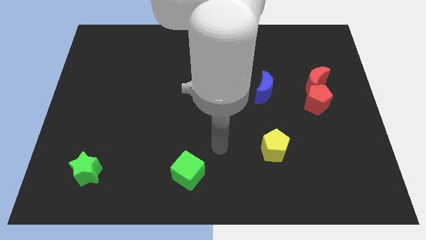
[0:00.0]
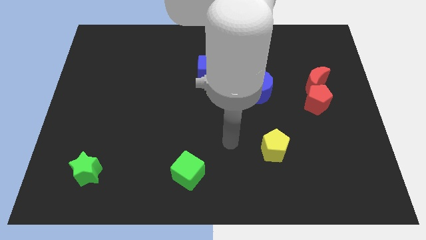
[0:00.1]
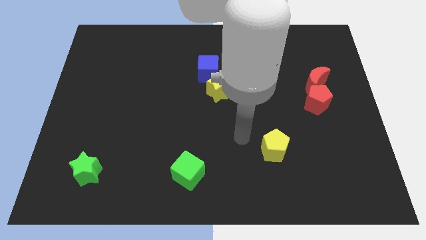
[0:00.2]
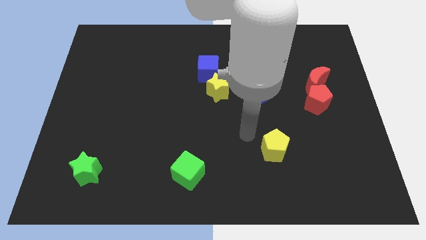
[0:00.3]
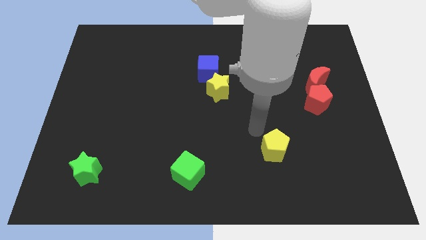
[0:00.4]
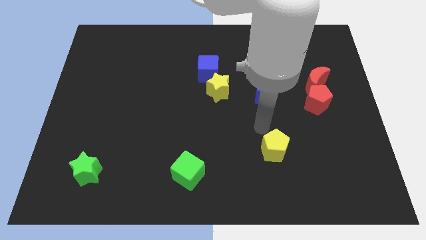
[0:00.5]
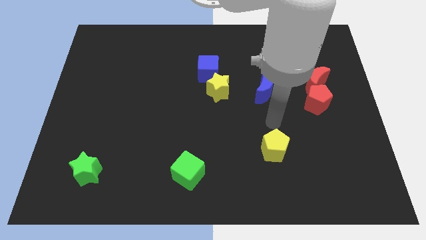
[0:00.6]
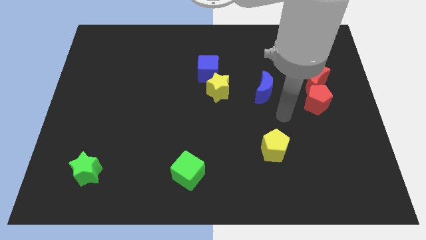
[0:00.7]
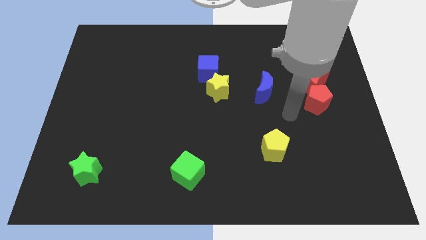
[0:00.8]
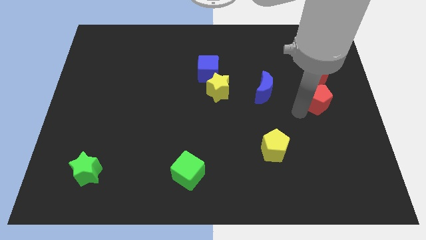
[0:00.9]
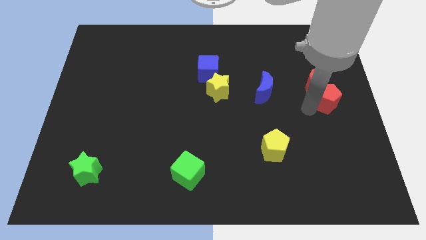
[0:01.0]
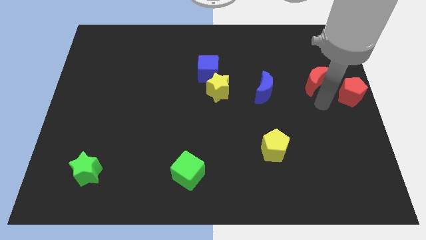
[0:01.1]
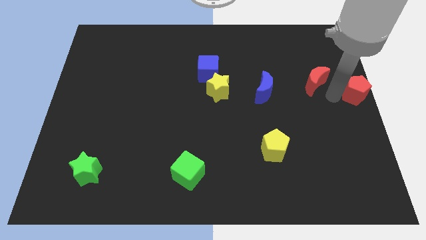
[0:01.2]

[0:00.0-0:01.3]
pull the red moon apart from the red pentagon

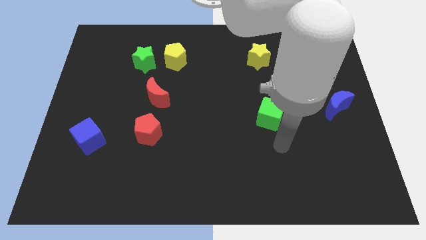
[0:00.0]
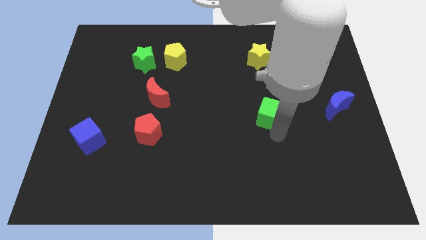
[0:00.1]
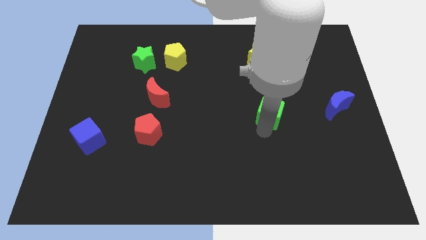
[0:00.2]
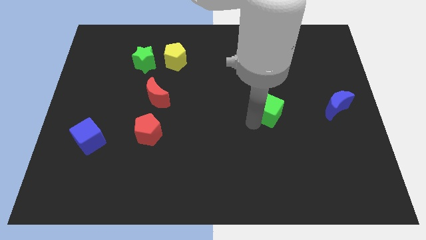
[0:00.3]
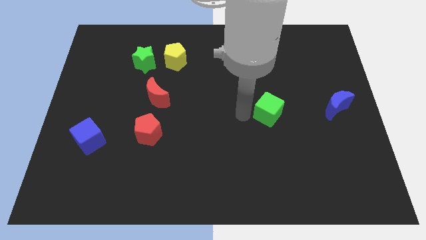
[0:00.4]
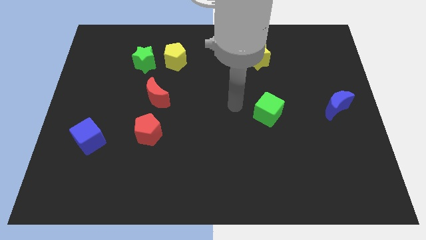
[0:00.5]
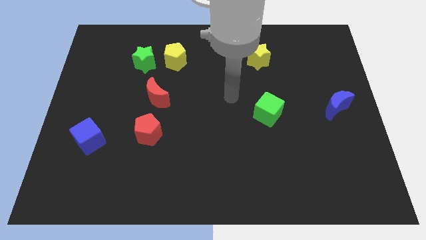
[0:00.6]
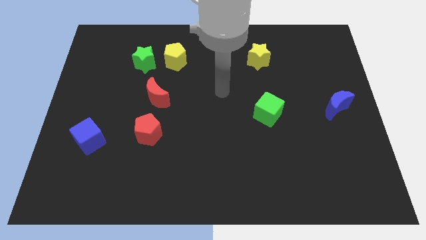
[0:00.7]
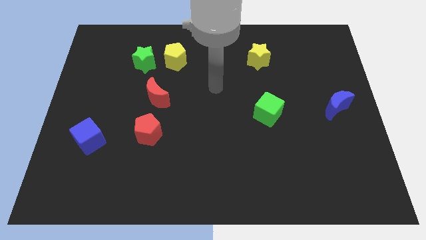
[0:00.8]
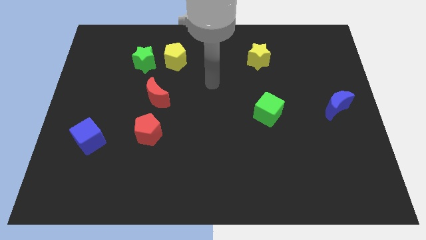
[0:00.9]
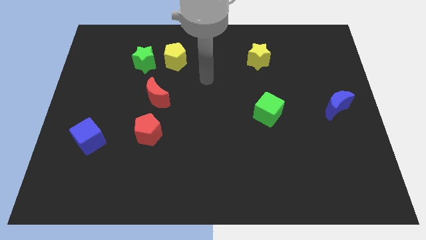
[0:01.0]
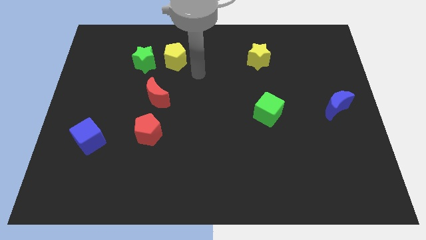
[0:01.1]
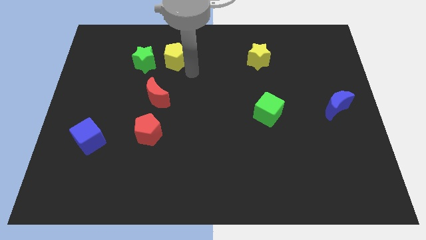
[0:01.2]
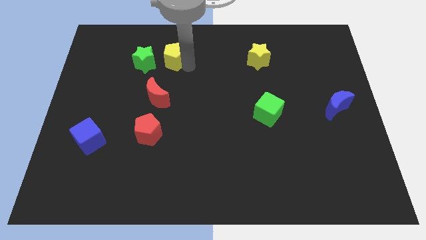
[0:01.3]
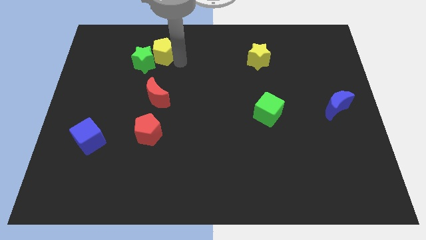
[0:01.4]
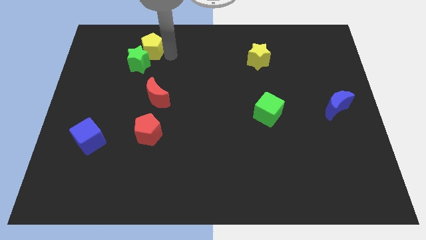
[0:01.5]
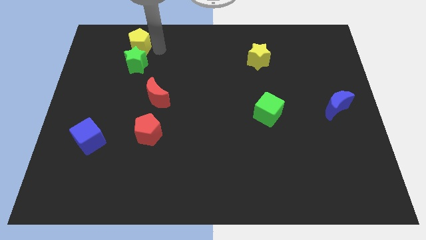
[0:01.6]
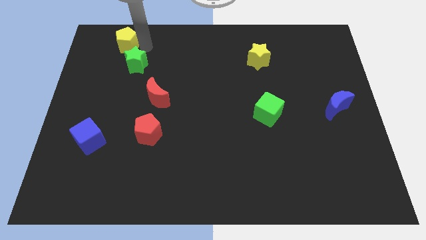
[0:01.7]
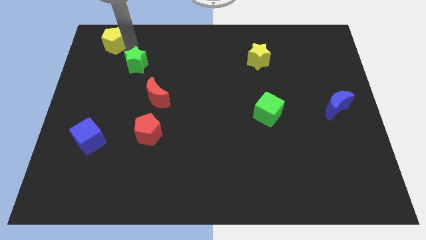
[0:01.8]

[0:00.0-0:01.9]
separate the green star from the yellow pentagon

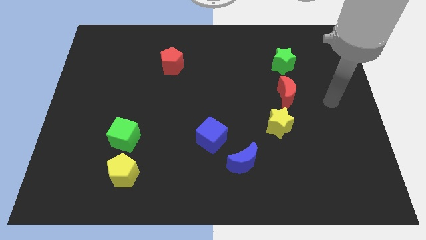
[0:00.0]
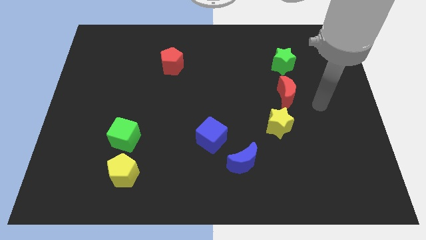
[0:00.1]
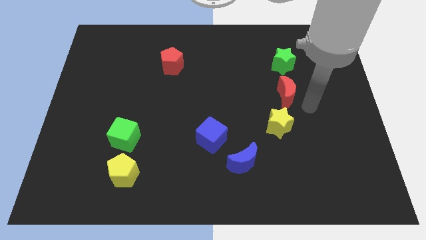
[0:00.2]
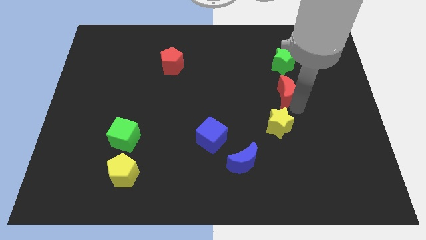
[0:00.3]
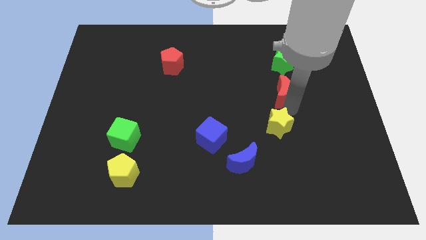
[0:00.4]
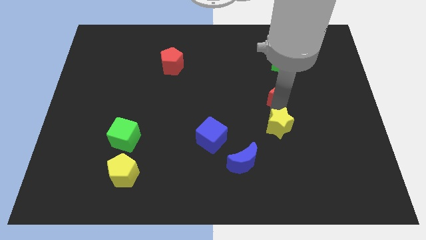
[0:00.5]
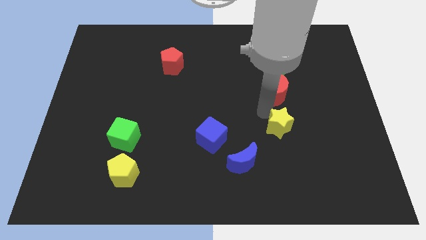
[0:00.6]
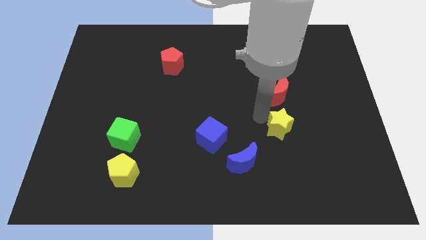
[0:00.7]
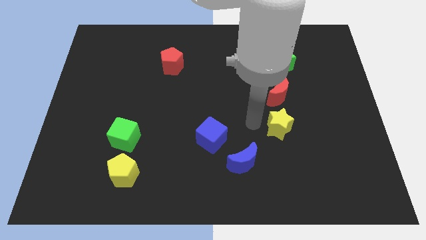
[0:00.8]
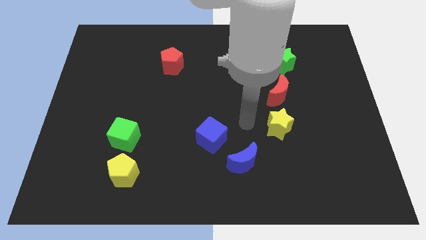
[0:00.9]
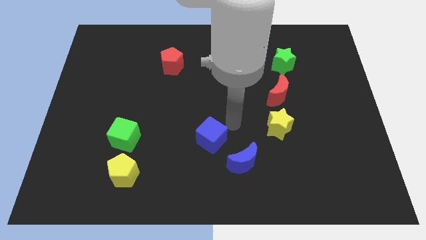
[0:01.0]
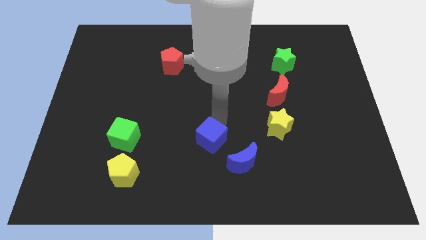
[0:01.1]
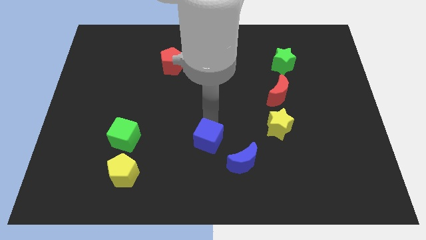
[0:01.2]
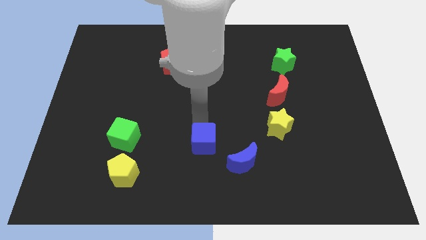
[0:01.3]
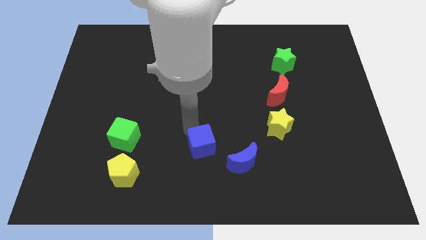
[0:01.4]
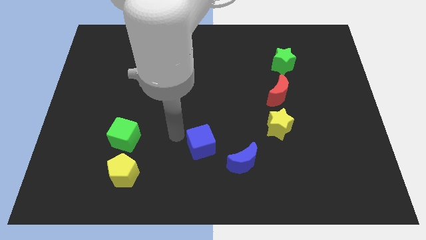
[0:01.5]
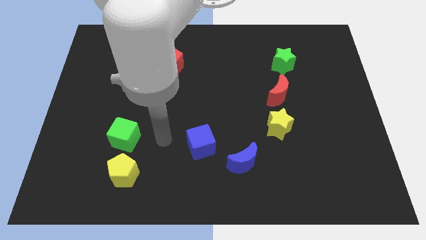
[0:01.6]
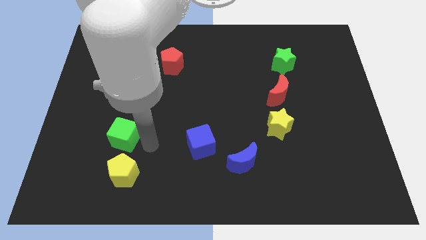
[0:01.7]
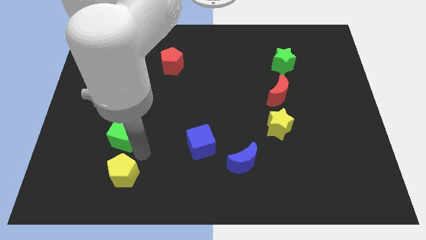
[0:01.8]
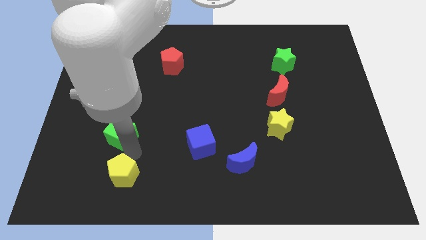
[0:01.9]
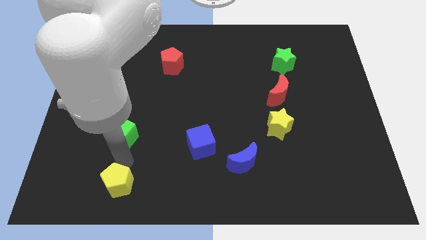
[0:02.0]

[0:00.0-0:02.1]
pull the green cube apart from the yellow pentagon

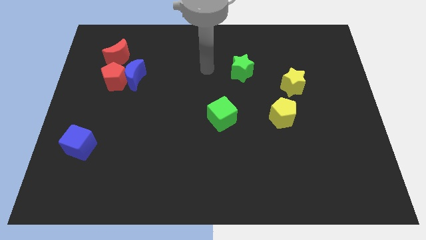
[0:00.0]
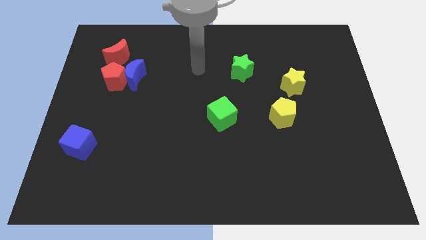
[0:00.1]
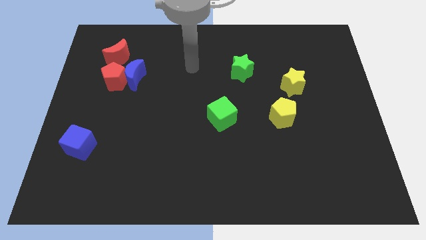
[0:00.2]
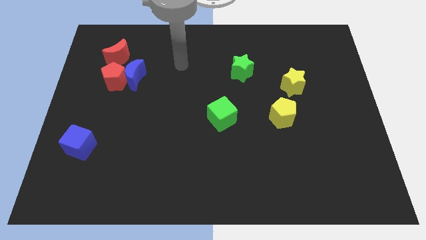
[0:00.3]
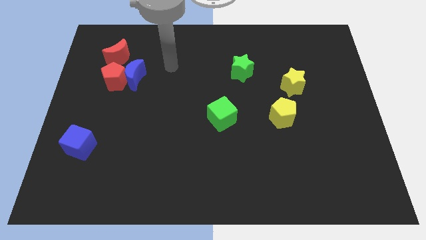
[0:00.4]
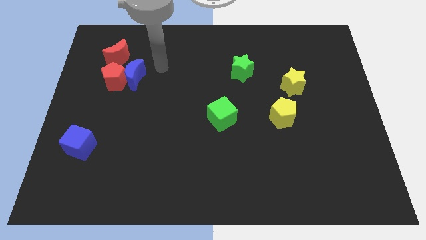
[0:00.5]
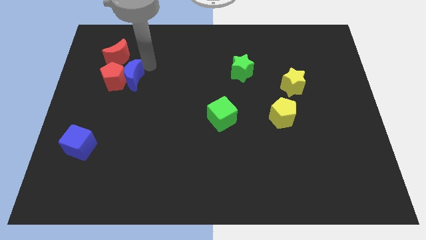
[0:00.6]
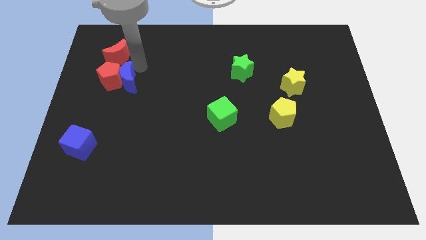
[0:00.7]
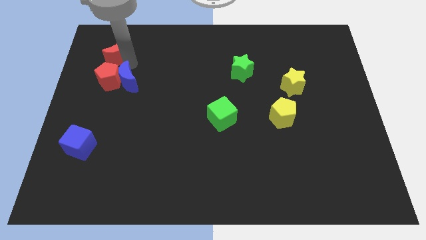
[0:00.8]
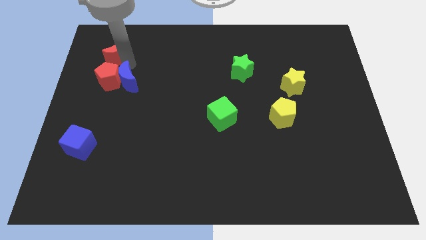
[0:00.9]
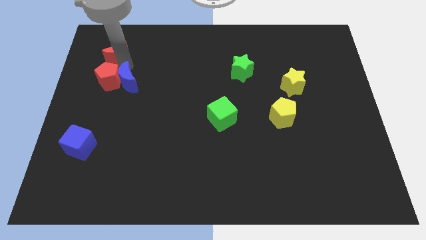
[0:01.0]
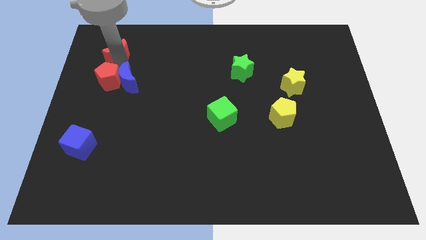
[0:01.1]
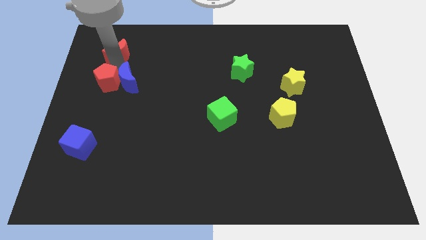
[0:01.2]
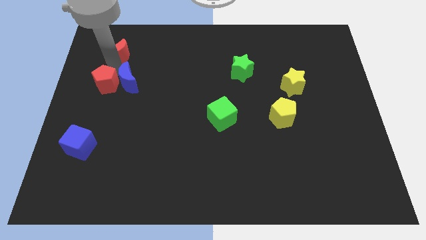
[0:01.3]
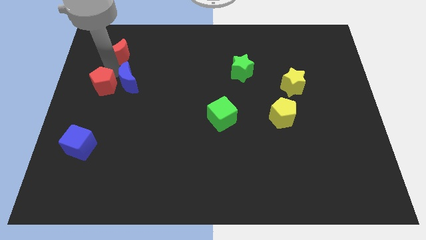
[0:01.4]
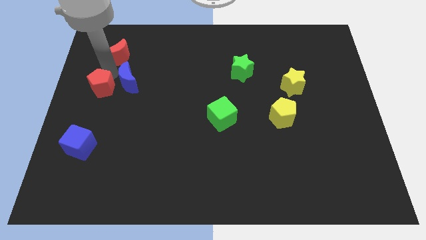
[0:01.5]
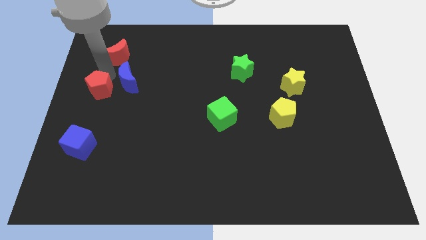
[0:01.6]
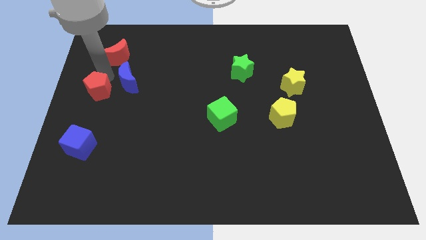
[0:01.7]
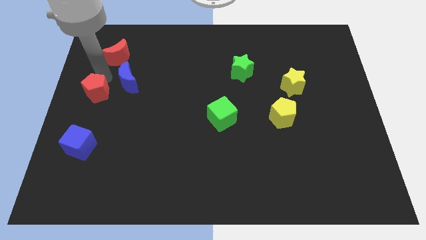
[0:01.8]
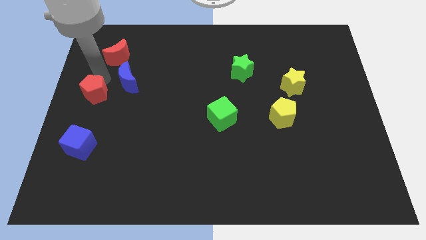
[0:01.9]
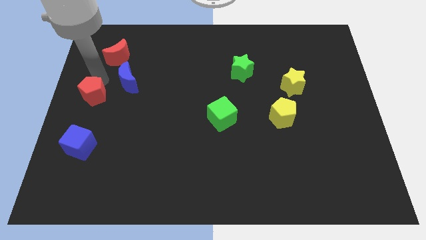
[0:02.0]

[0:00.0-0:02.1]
separate the red pentagon from the blue moon and red moon

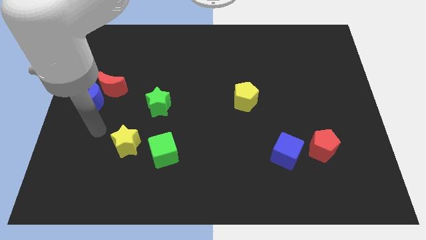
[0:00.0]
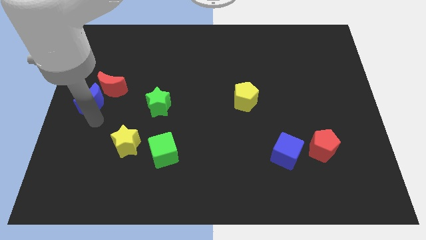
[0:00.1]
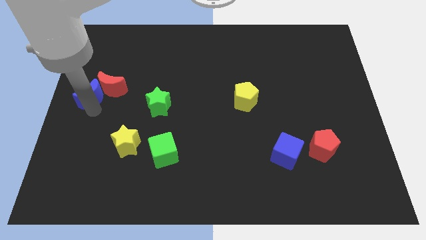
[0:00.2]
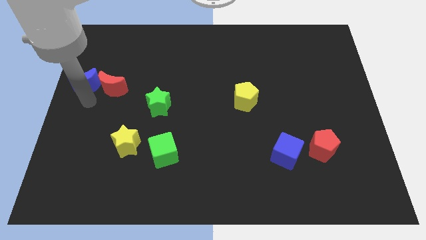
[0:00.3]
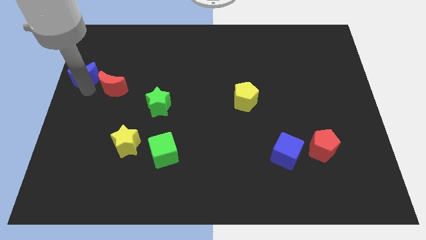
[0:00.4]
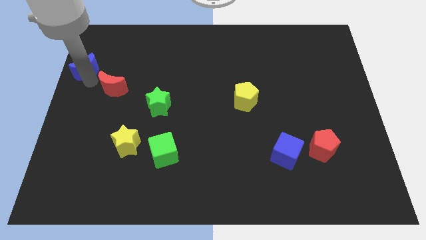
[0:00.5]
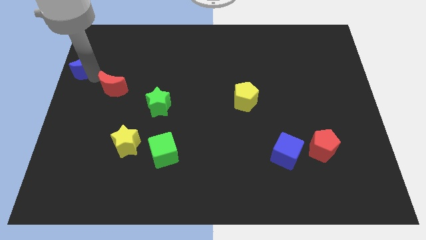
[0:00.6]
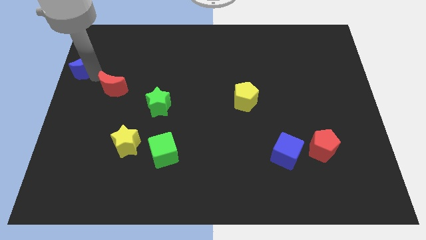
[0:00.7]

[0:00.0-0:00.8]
move the red moon away from the blue moon

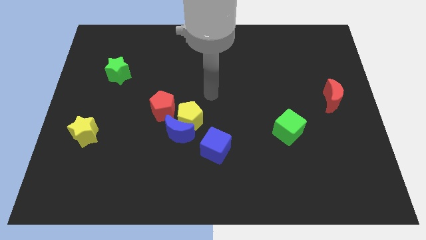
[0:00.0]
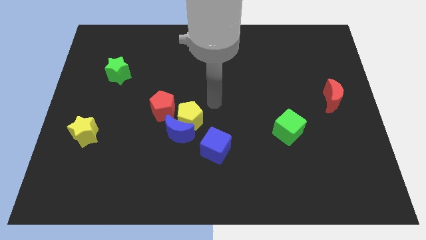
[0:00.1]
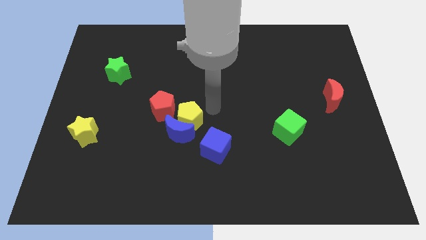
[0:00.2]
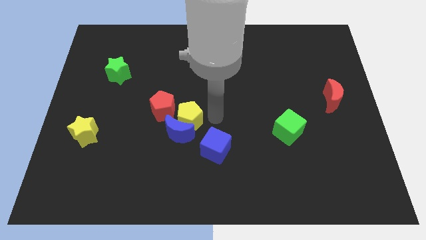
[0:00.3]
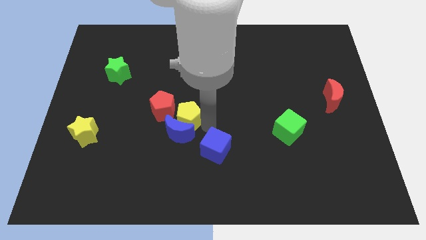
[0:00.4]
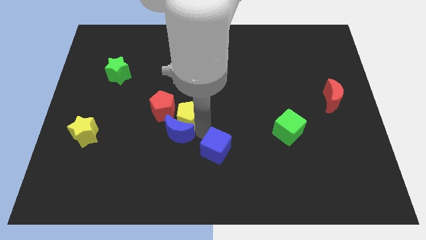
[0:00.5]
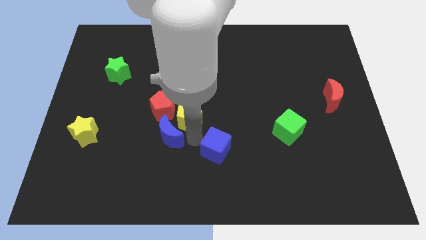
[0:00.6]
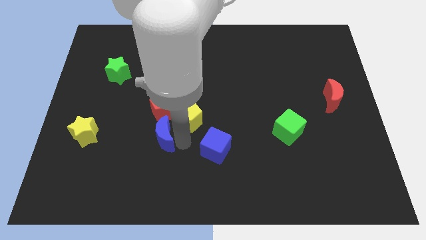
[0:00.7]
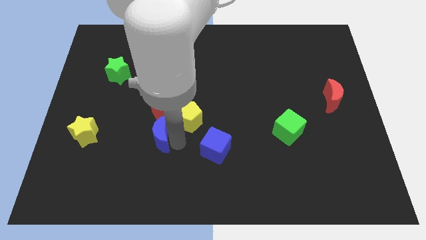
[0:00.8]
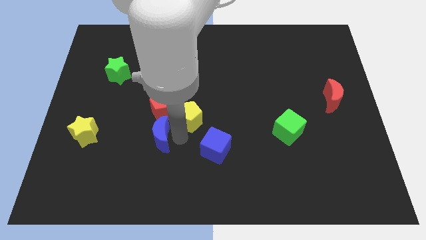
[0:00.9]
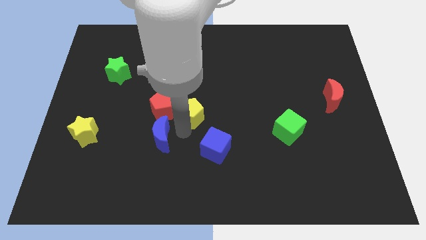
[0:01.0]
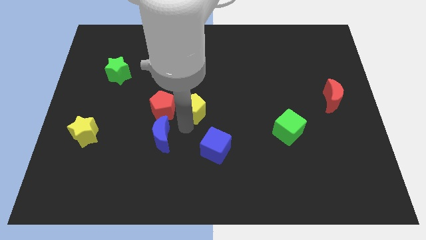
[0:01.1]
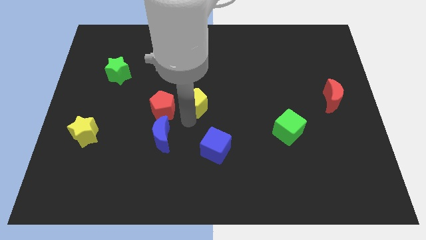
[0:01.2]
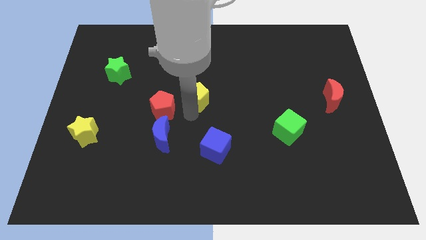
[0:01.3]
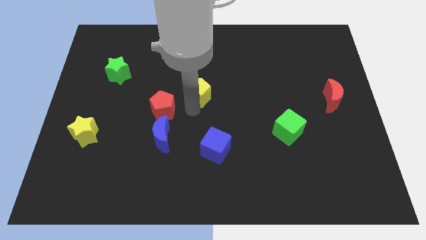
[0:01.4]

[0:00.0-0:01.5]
move the yellow pentagon away from the blue moon, red pentagon, and blue cube
